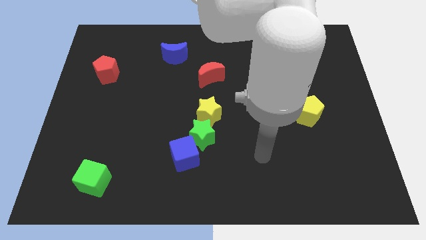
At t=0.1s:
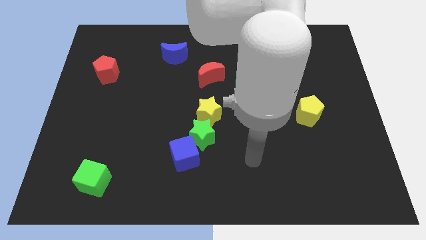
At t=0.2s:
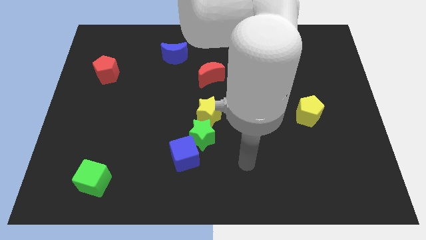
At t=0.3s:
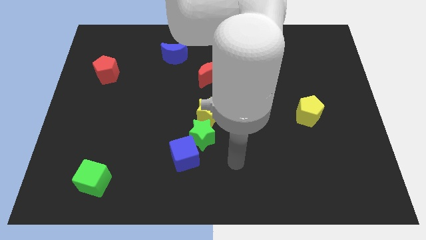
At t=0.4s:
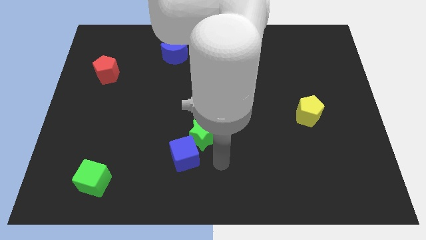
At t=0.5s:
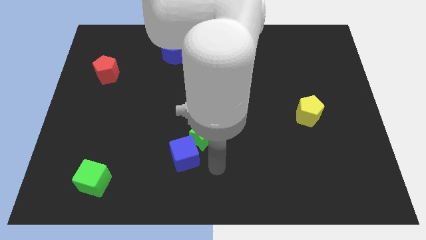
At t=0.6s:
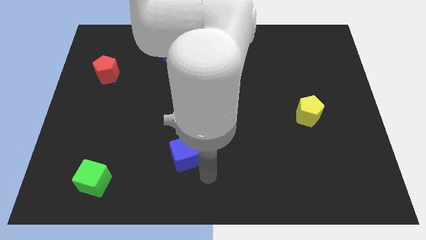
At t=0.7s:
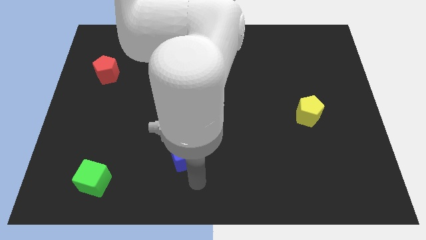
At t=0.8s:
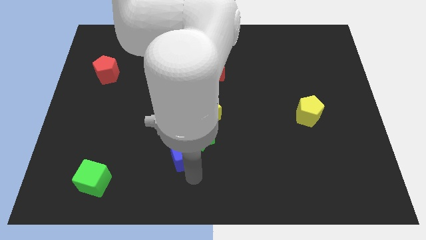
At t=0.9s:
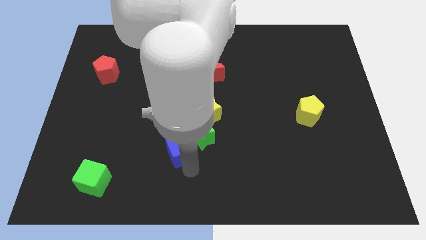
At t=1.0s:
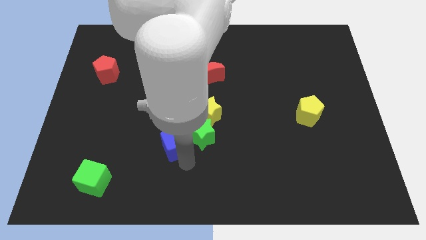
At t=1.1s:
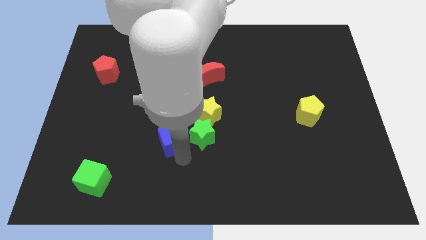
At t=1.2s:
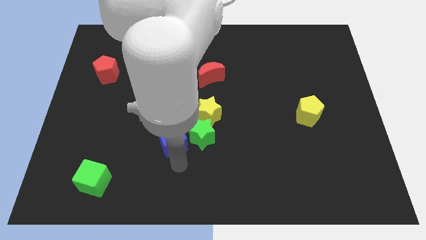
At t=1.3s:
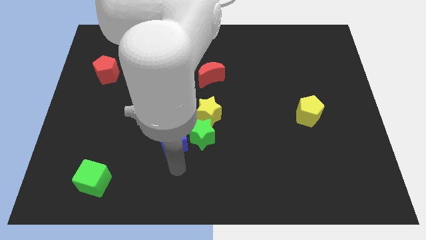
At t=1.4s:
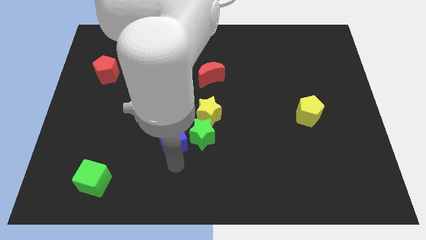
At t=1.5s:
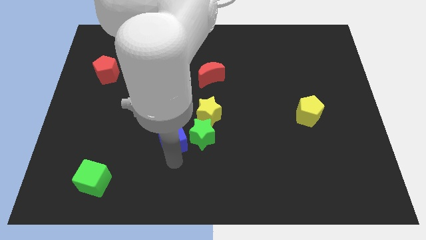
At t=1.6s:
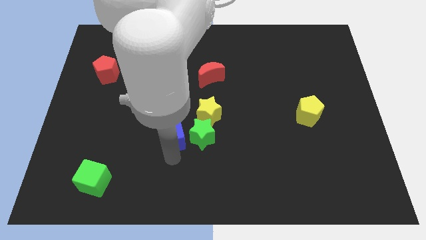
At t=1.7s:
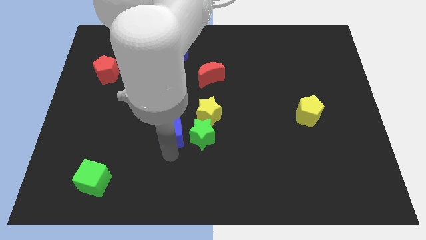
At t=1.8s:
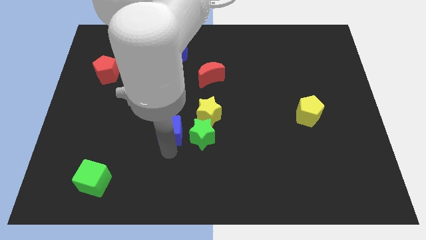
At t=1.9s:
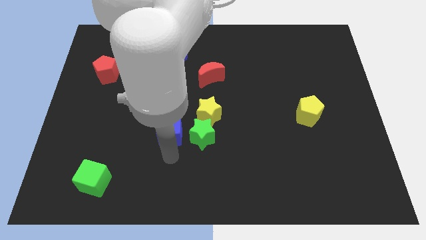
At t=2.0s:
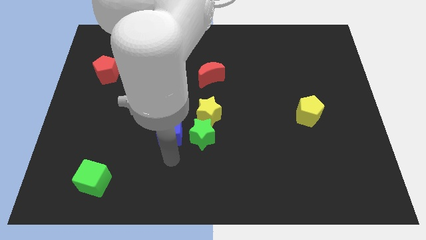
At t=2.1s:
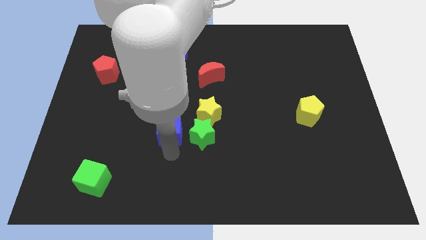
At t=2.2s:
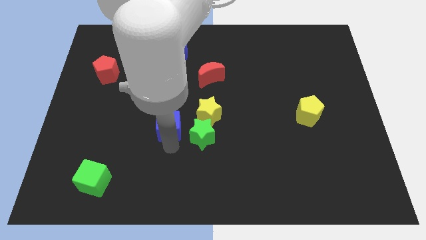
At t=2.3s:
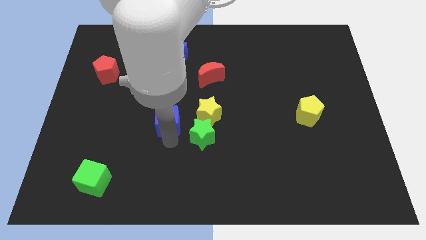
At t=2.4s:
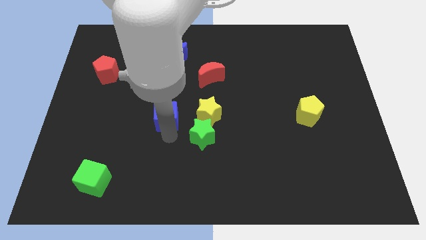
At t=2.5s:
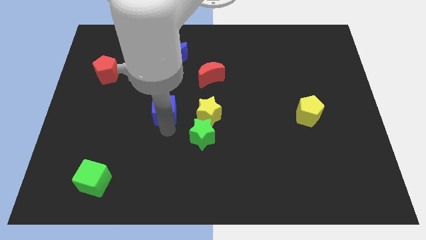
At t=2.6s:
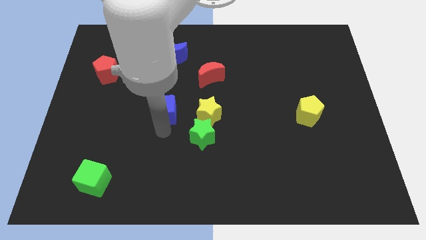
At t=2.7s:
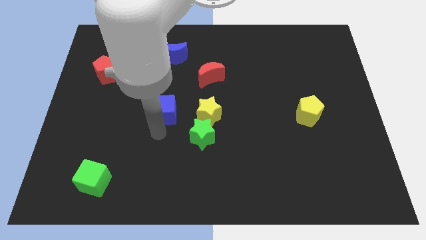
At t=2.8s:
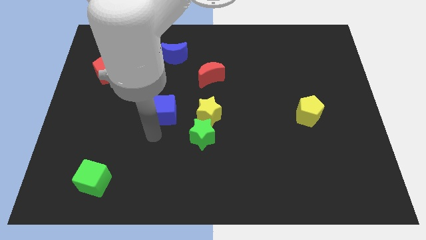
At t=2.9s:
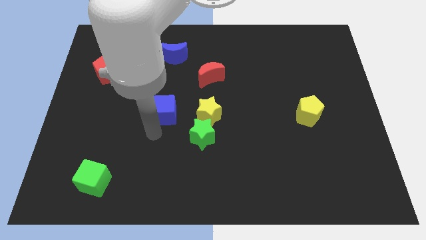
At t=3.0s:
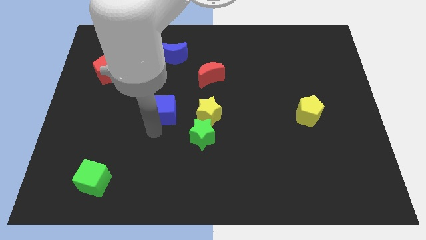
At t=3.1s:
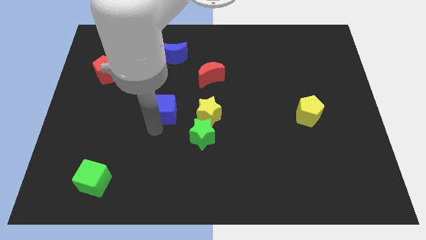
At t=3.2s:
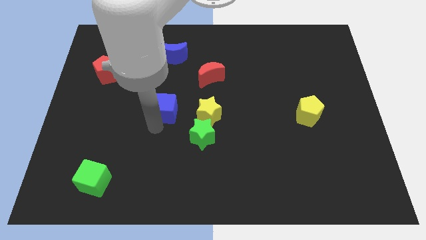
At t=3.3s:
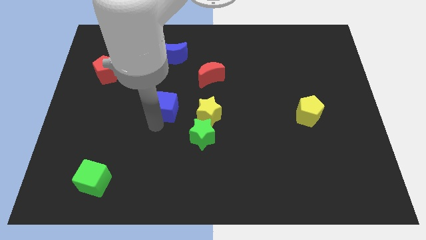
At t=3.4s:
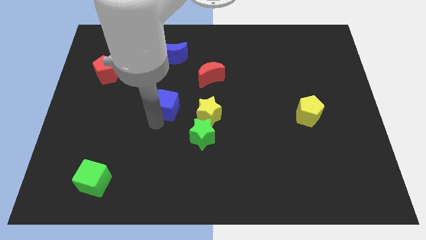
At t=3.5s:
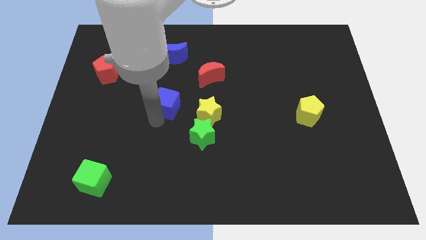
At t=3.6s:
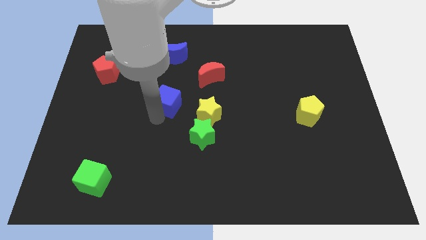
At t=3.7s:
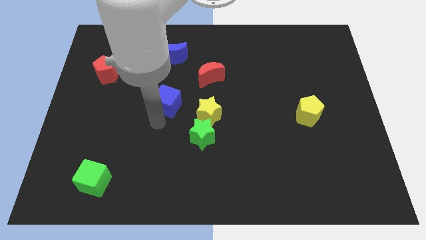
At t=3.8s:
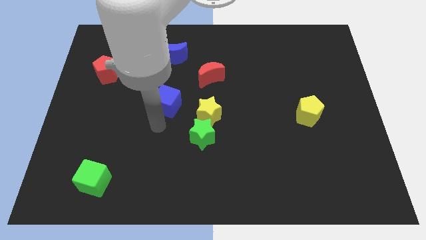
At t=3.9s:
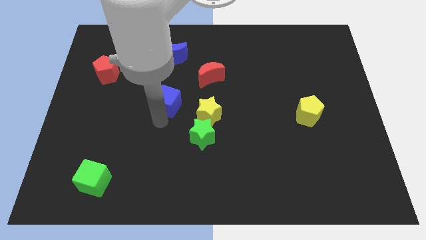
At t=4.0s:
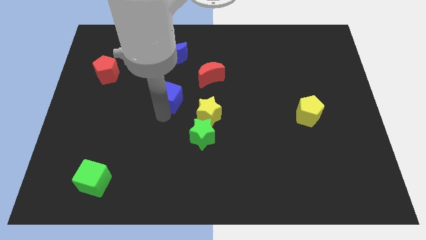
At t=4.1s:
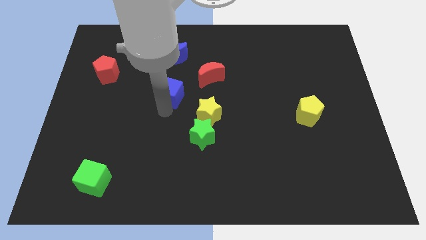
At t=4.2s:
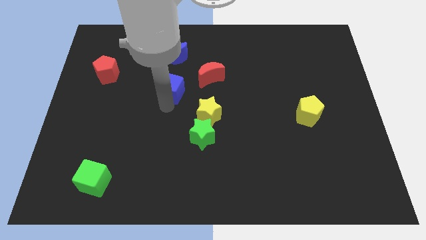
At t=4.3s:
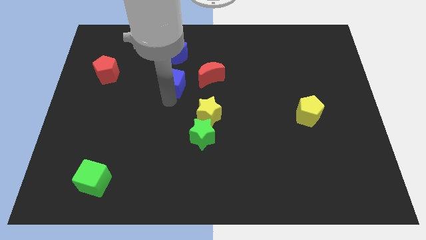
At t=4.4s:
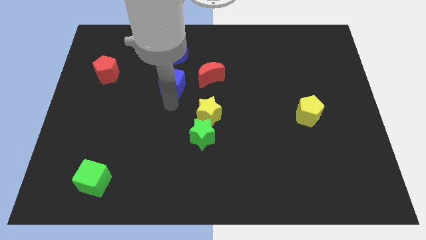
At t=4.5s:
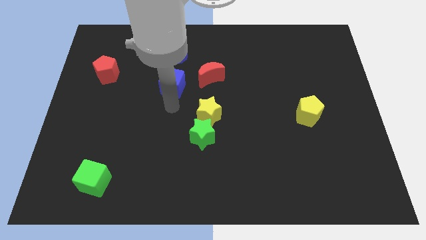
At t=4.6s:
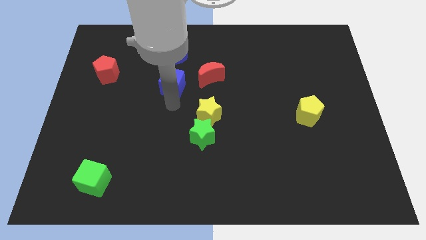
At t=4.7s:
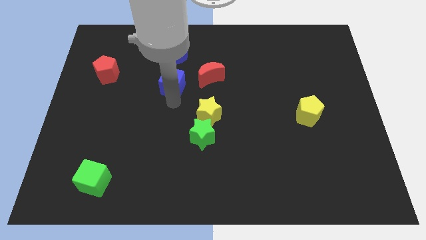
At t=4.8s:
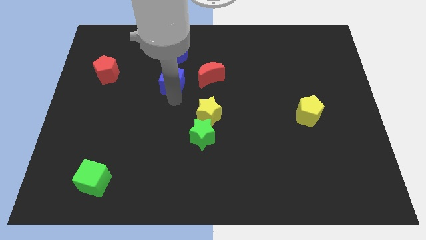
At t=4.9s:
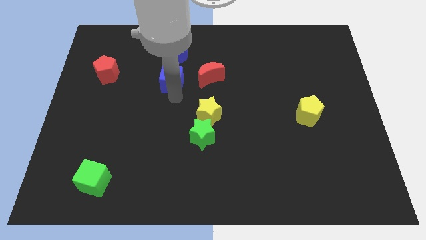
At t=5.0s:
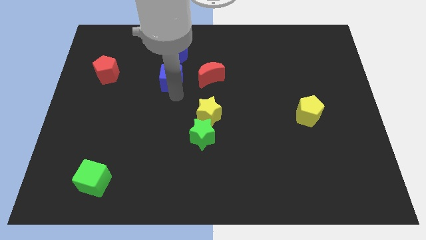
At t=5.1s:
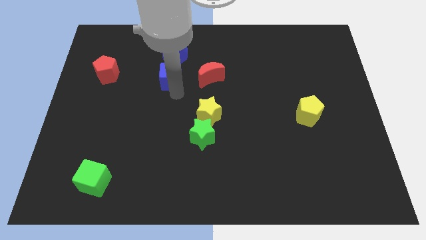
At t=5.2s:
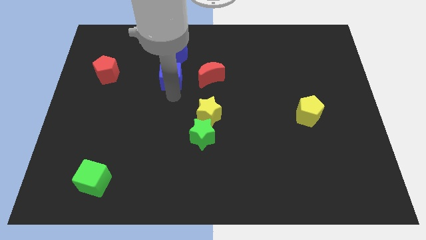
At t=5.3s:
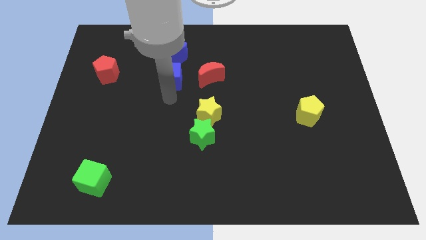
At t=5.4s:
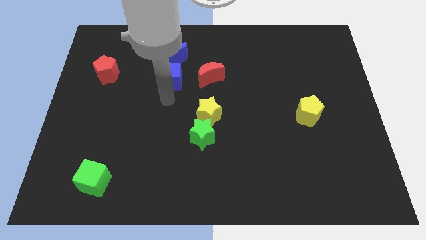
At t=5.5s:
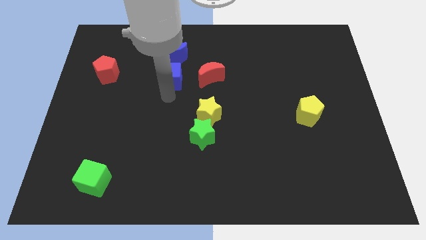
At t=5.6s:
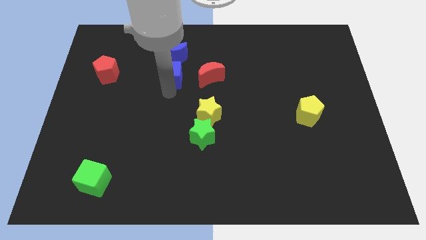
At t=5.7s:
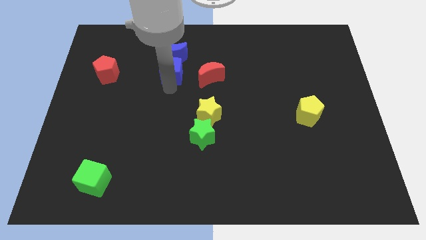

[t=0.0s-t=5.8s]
slide the blue cube to the blue moon

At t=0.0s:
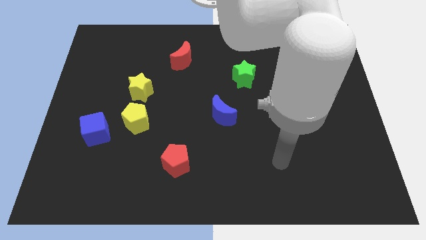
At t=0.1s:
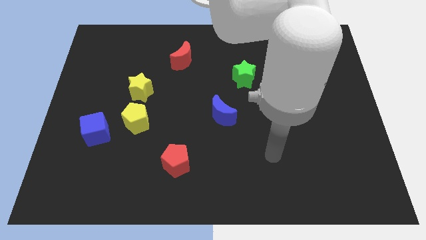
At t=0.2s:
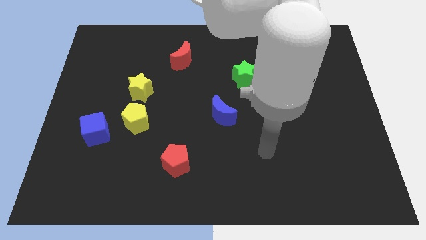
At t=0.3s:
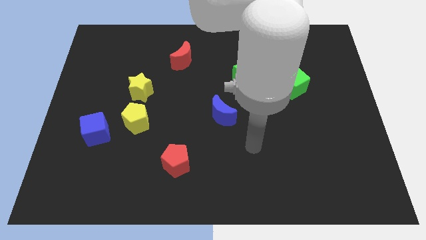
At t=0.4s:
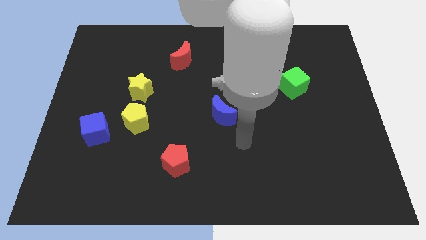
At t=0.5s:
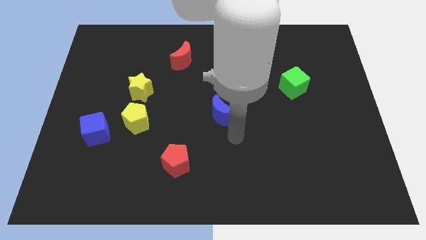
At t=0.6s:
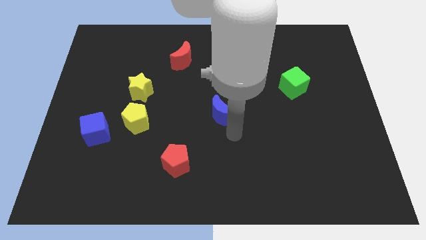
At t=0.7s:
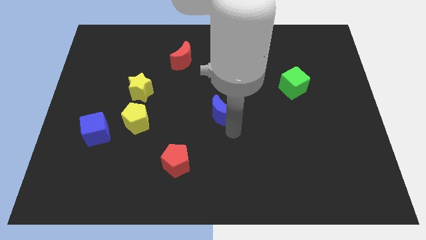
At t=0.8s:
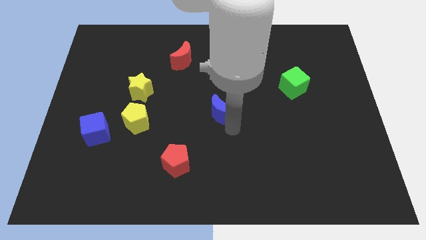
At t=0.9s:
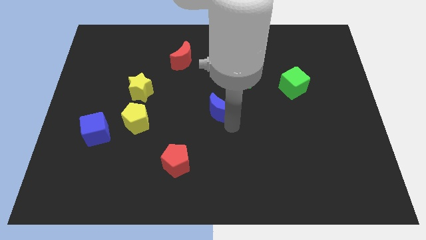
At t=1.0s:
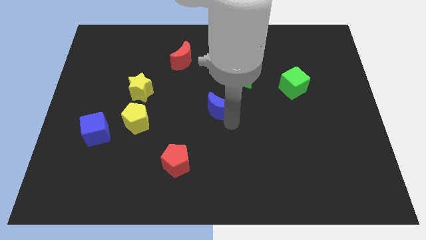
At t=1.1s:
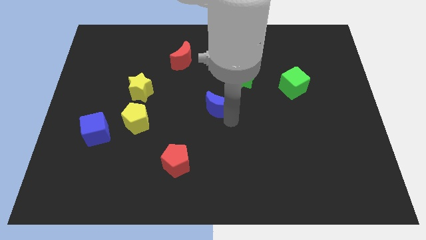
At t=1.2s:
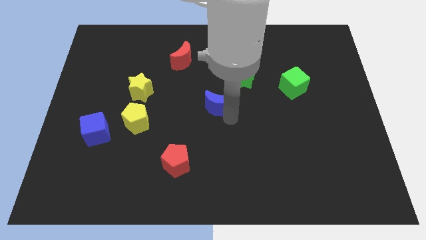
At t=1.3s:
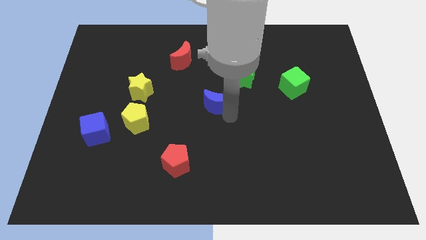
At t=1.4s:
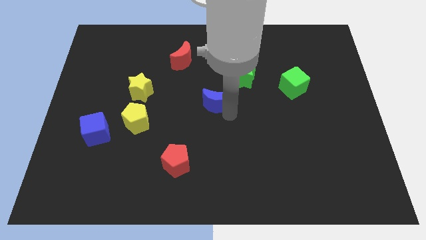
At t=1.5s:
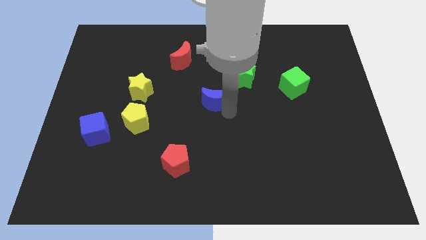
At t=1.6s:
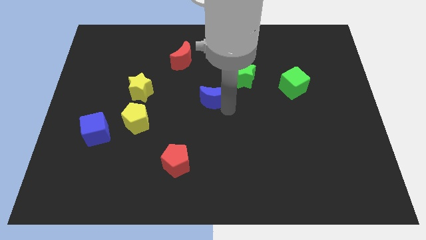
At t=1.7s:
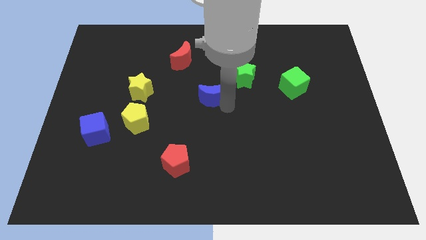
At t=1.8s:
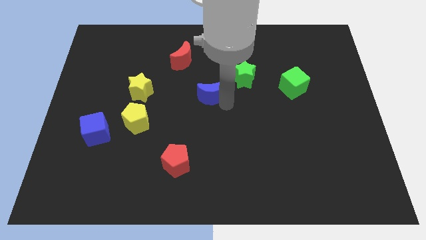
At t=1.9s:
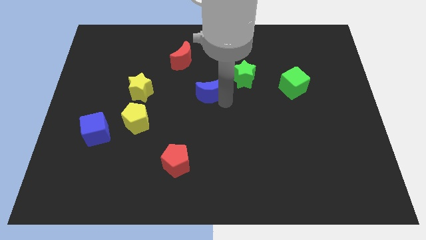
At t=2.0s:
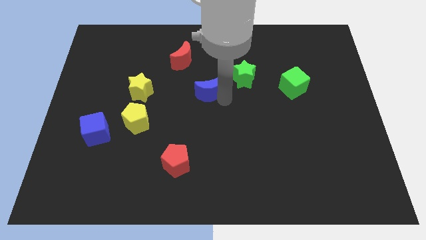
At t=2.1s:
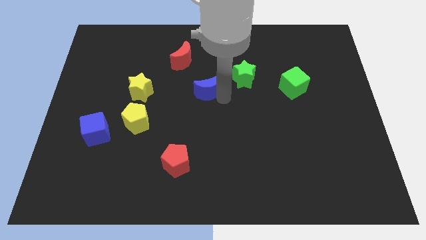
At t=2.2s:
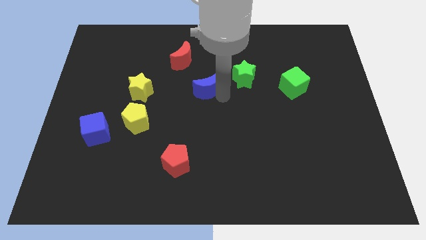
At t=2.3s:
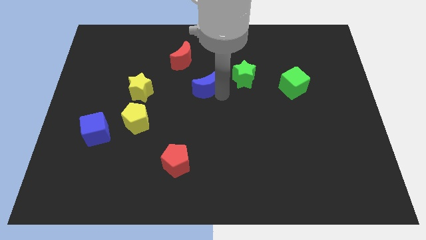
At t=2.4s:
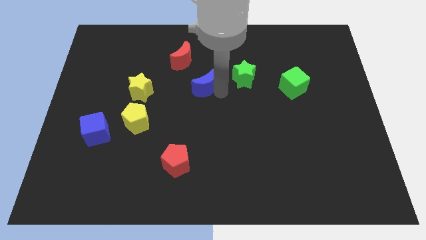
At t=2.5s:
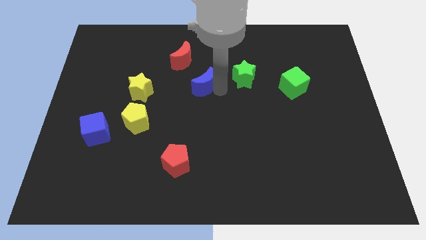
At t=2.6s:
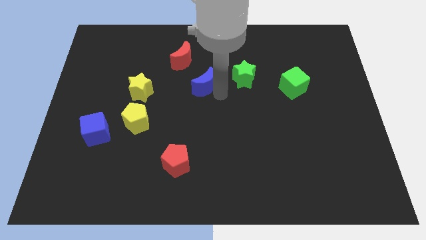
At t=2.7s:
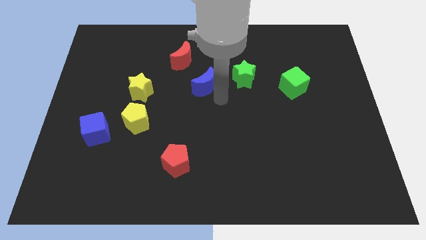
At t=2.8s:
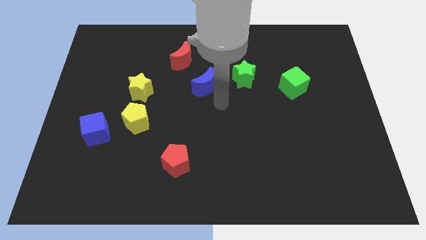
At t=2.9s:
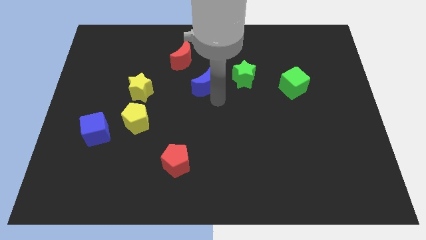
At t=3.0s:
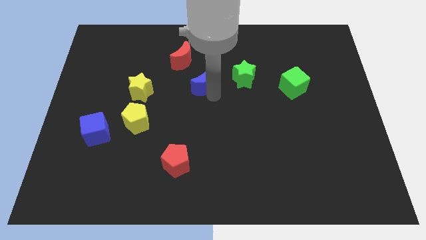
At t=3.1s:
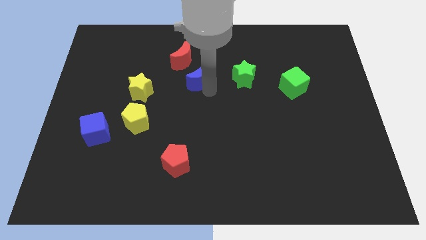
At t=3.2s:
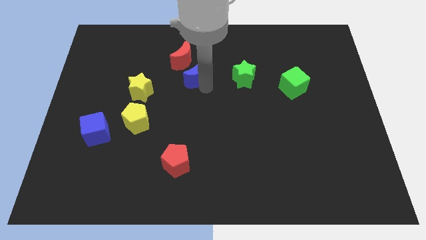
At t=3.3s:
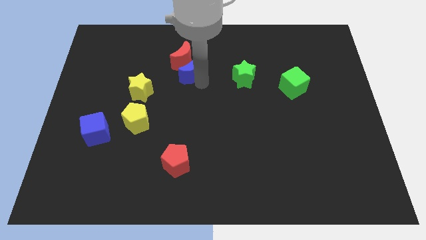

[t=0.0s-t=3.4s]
push the blue moon to the red moon
